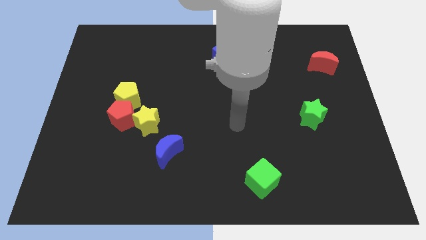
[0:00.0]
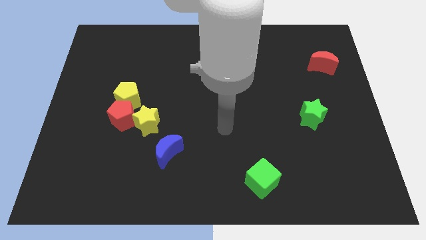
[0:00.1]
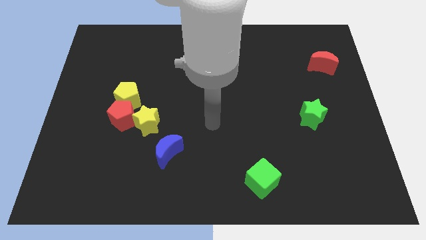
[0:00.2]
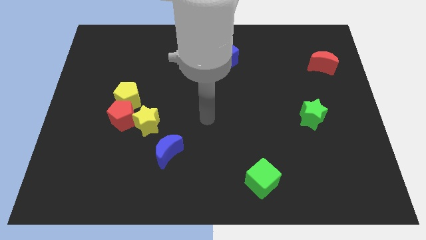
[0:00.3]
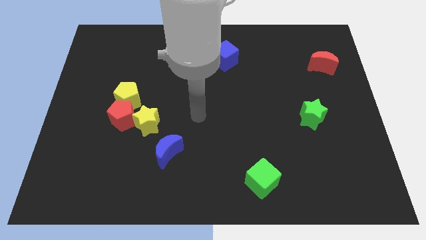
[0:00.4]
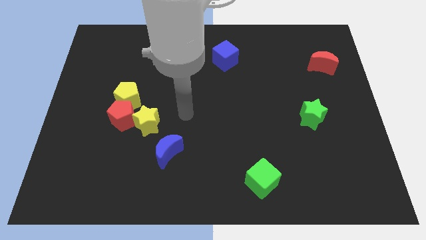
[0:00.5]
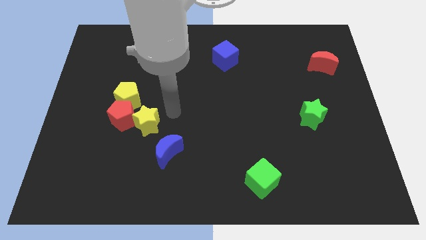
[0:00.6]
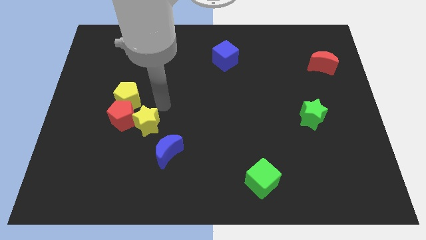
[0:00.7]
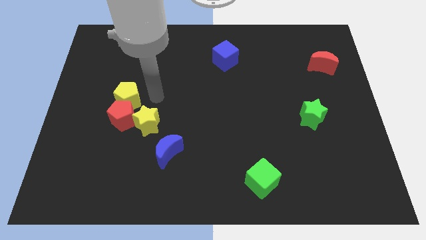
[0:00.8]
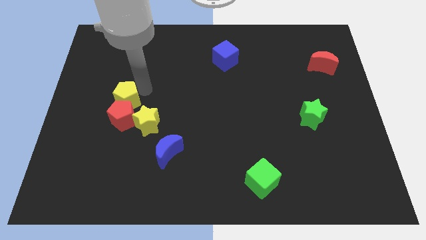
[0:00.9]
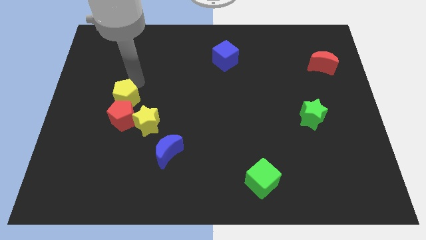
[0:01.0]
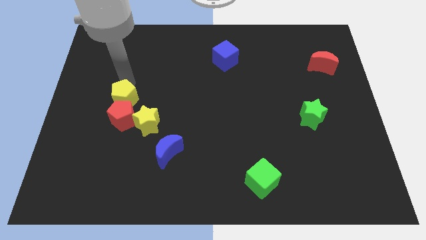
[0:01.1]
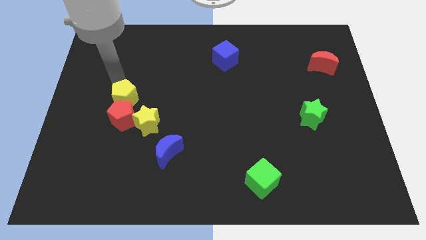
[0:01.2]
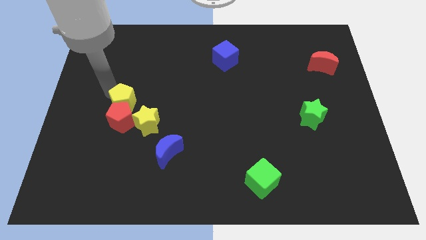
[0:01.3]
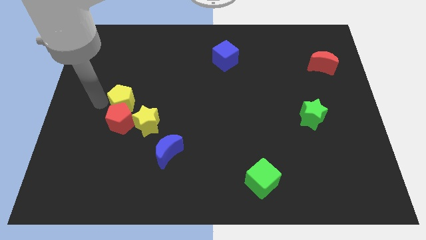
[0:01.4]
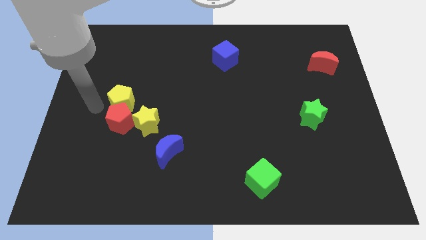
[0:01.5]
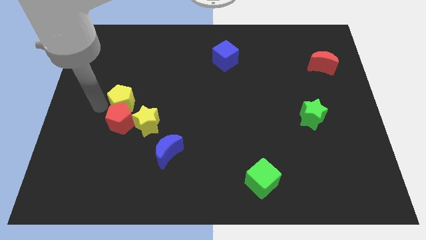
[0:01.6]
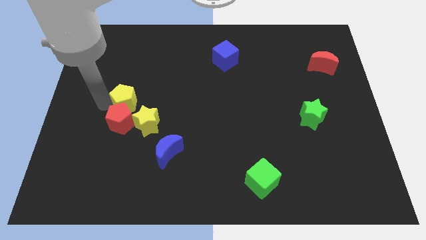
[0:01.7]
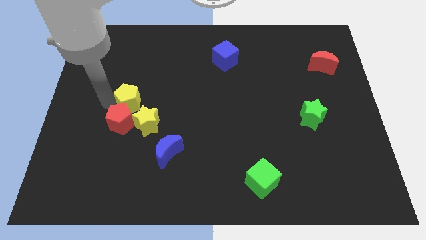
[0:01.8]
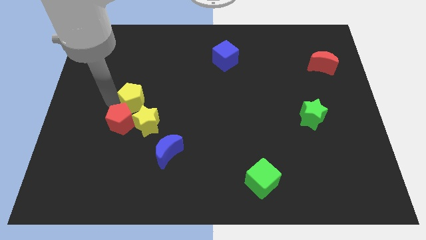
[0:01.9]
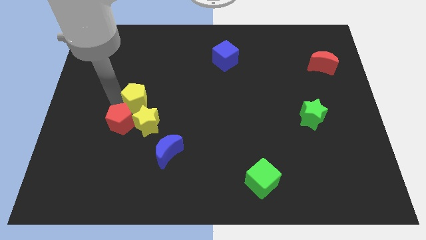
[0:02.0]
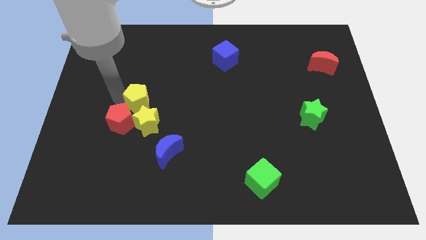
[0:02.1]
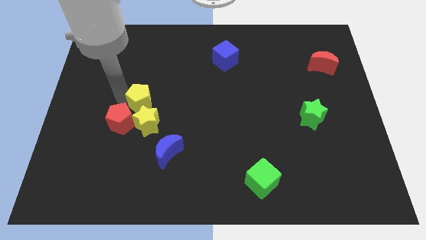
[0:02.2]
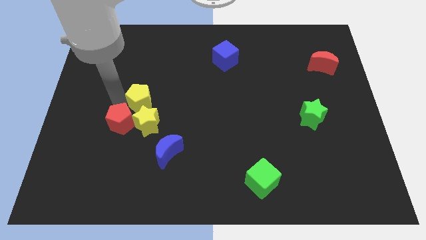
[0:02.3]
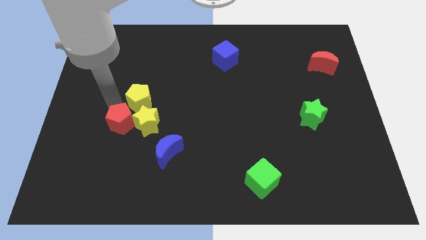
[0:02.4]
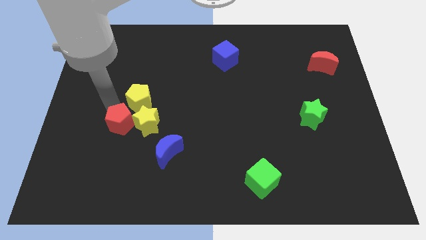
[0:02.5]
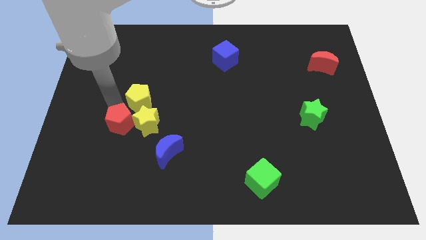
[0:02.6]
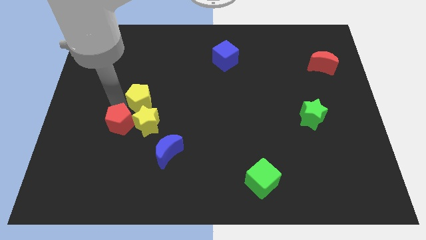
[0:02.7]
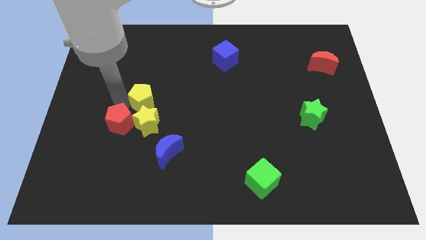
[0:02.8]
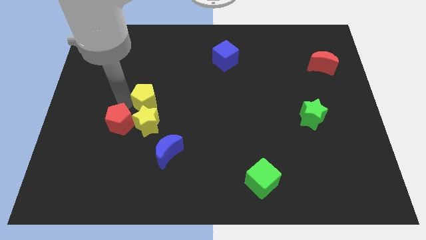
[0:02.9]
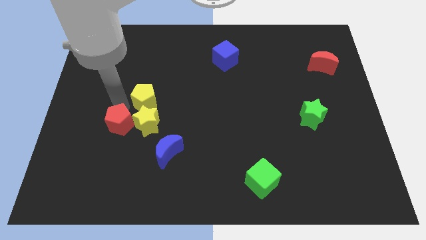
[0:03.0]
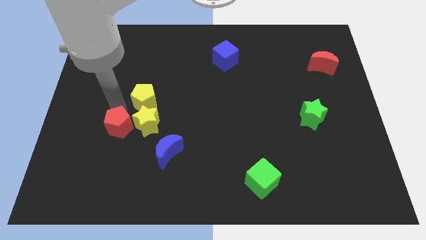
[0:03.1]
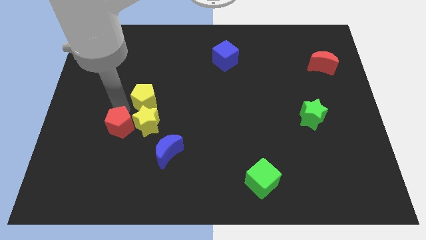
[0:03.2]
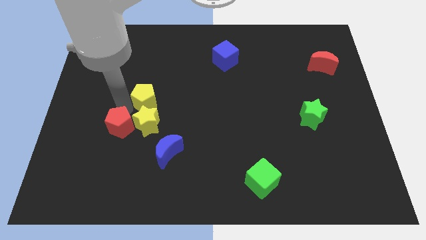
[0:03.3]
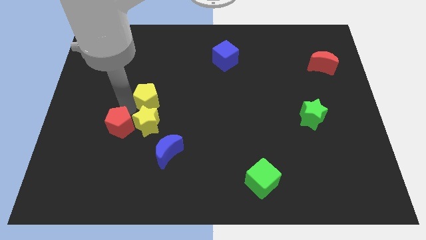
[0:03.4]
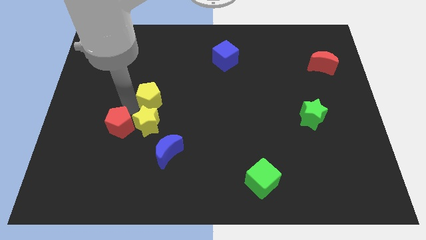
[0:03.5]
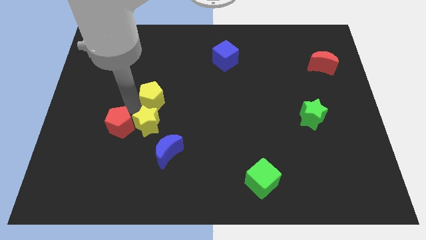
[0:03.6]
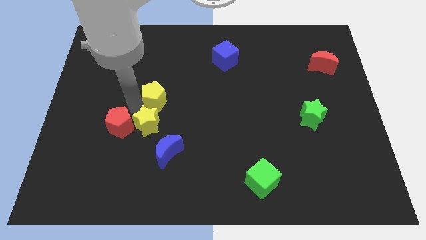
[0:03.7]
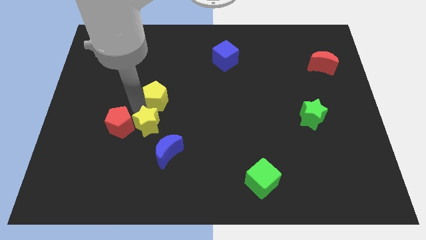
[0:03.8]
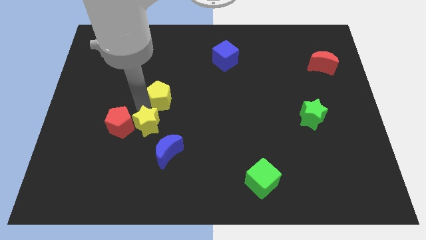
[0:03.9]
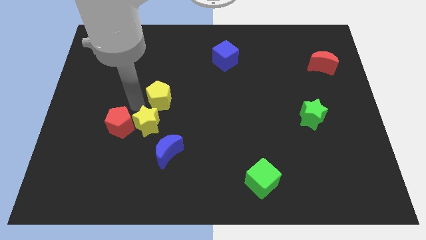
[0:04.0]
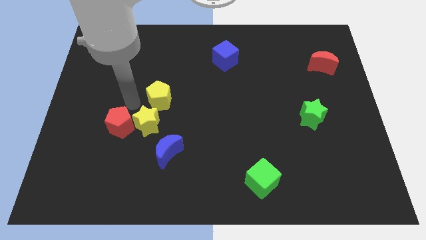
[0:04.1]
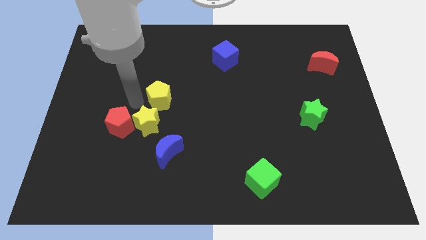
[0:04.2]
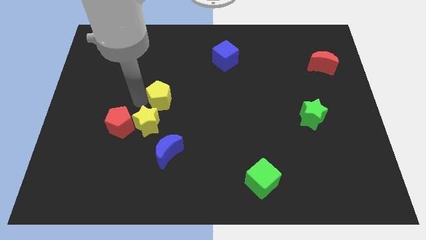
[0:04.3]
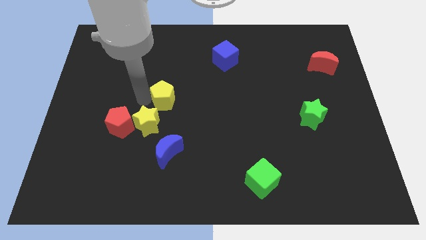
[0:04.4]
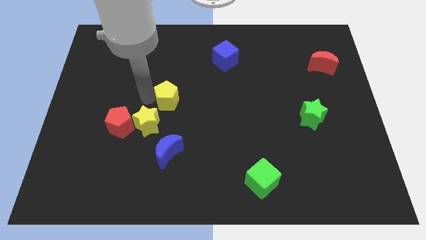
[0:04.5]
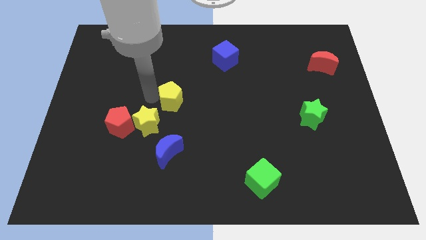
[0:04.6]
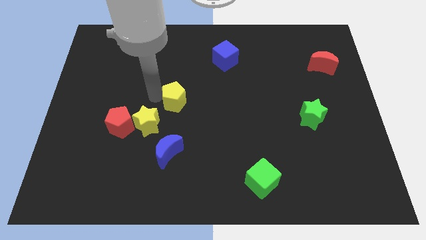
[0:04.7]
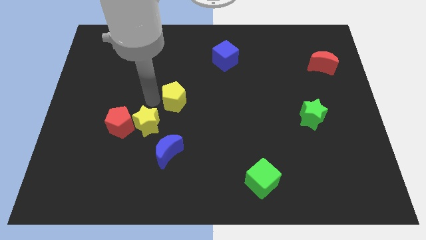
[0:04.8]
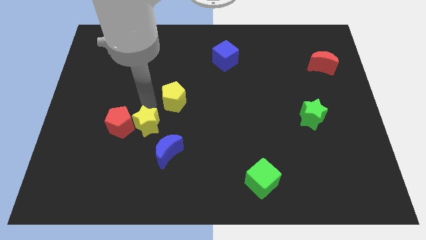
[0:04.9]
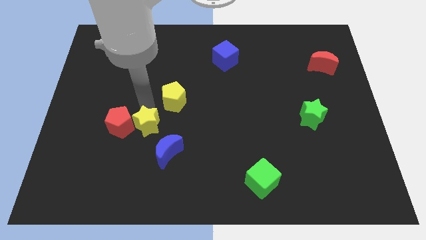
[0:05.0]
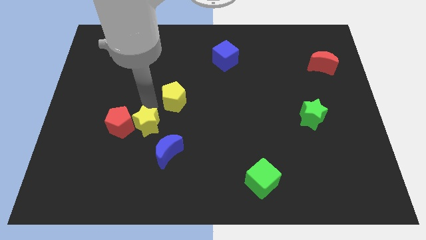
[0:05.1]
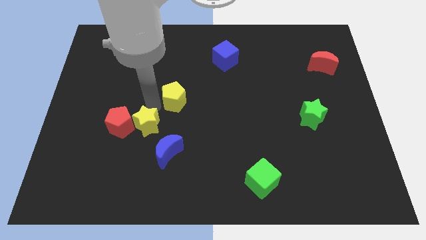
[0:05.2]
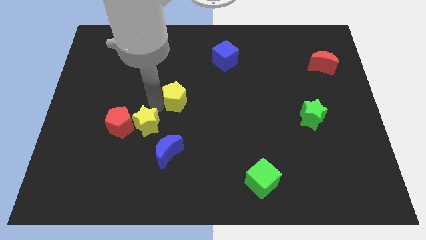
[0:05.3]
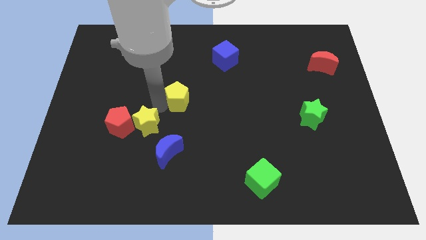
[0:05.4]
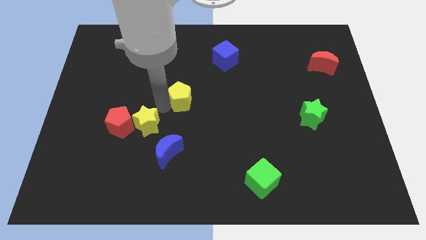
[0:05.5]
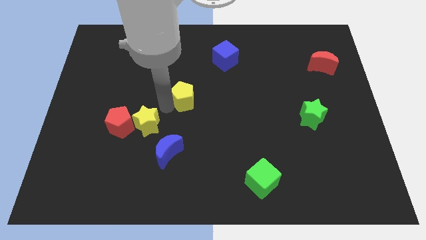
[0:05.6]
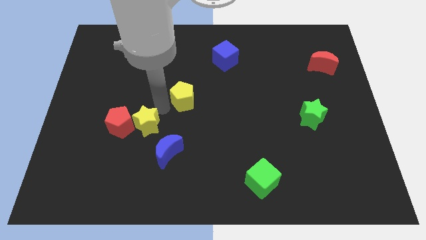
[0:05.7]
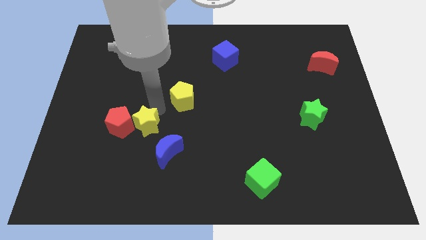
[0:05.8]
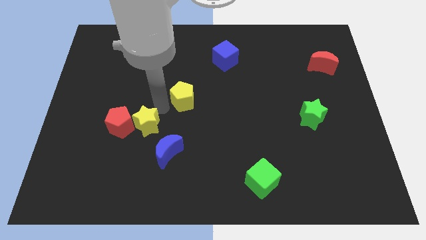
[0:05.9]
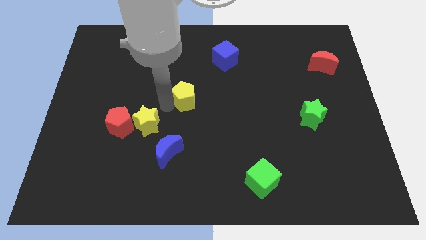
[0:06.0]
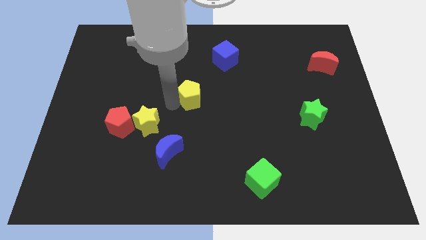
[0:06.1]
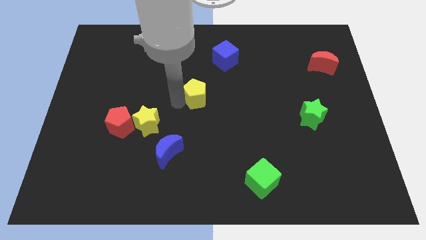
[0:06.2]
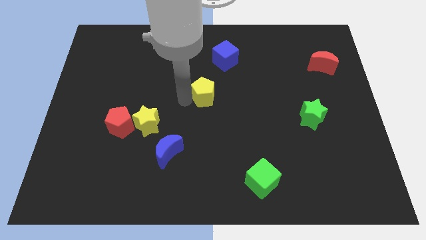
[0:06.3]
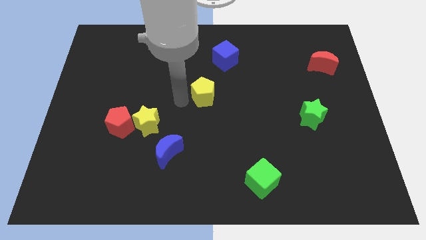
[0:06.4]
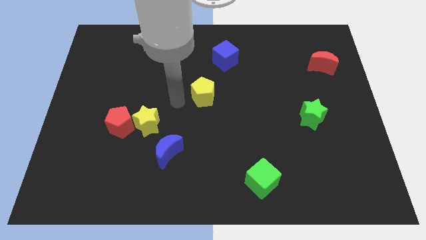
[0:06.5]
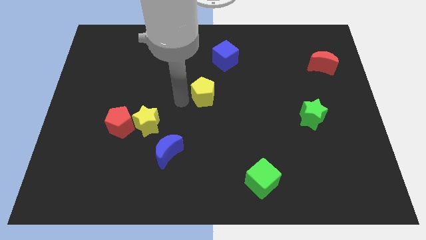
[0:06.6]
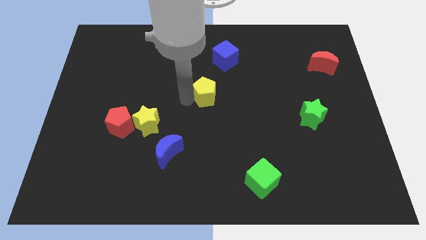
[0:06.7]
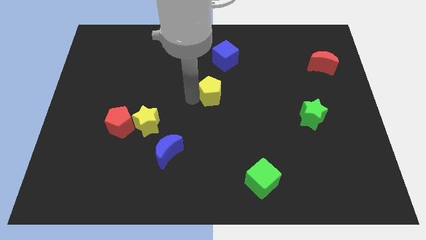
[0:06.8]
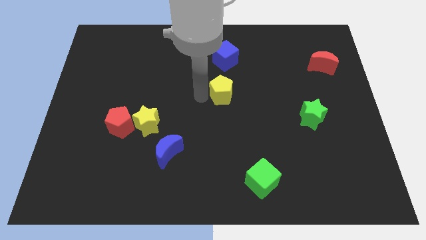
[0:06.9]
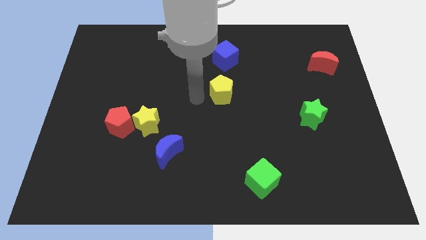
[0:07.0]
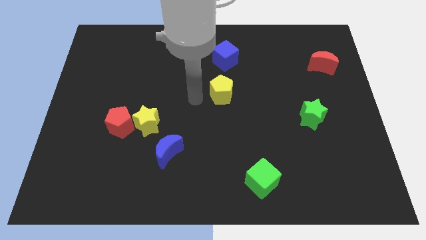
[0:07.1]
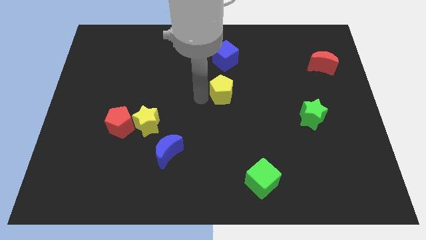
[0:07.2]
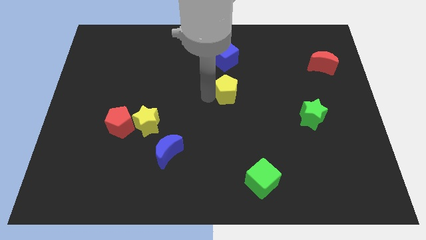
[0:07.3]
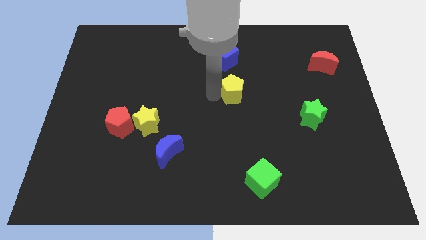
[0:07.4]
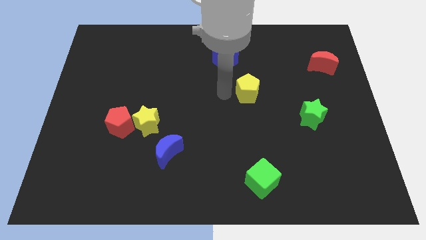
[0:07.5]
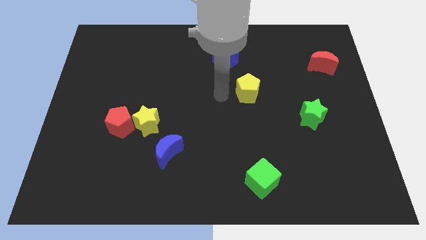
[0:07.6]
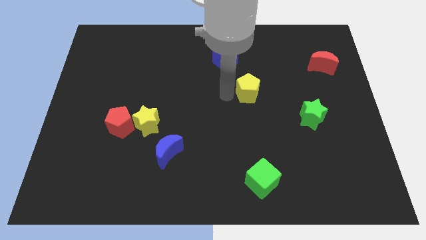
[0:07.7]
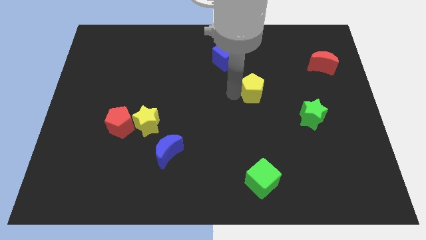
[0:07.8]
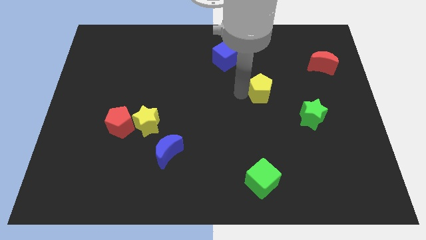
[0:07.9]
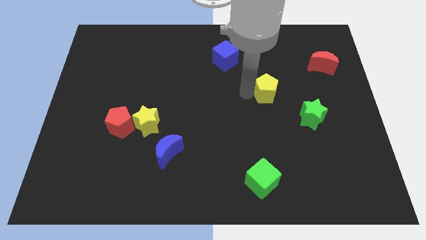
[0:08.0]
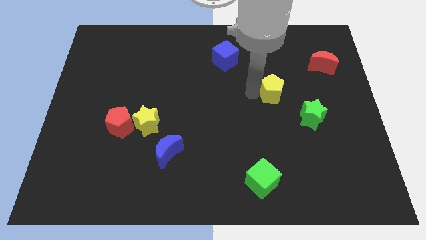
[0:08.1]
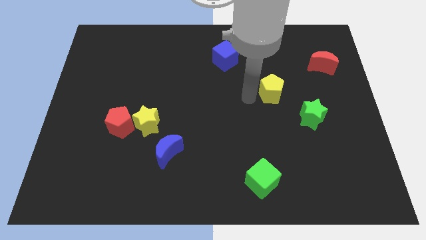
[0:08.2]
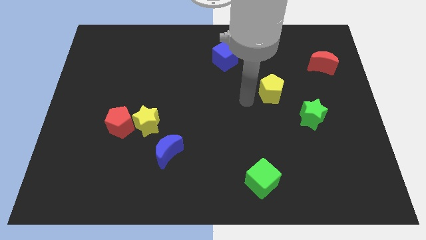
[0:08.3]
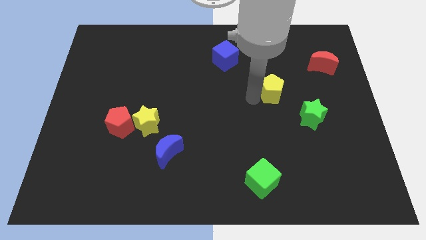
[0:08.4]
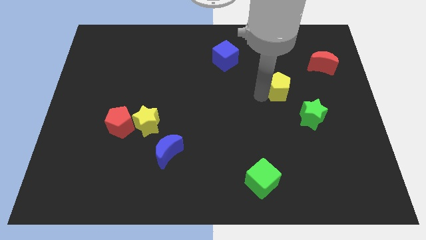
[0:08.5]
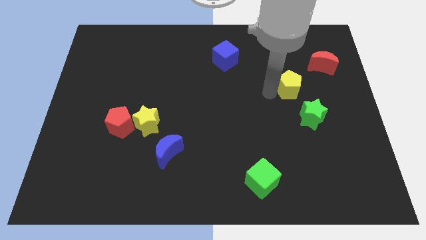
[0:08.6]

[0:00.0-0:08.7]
move the yellow pentagon diagonally down and to the left of the red moon
